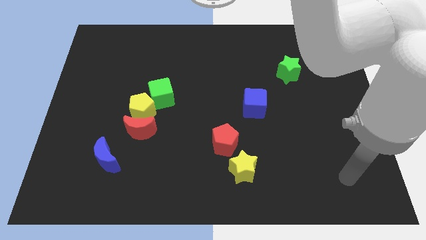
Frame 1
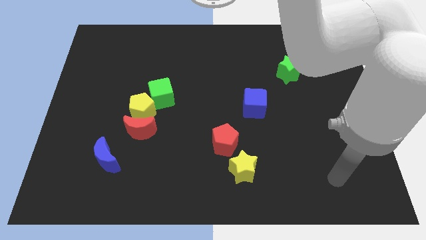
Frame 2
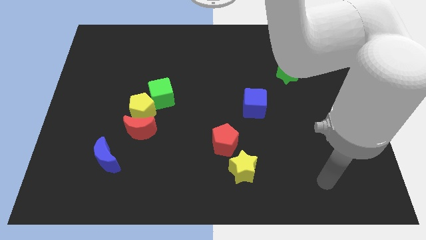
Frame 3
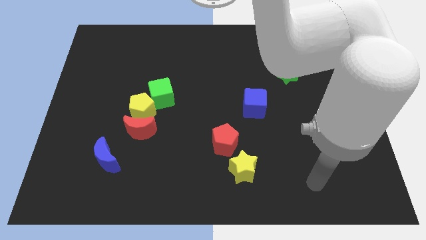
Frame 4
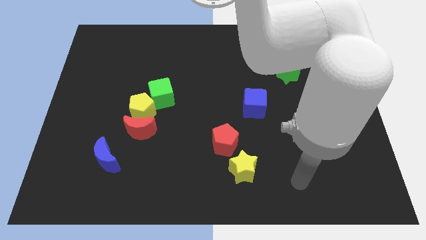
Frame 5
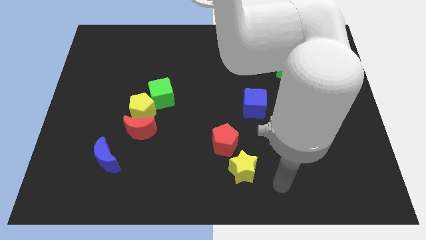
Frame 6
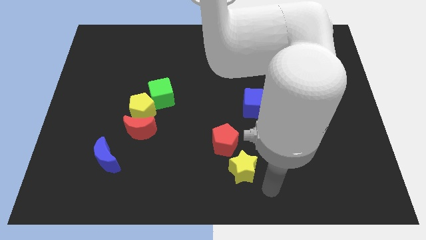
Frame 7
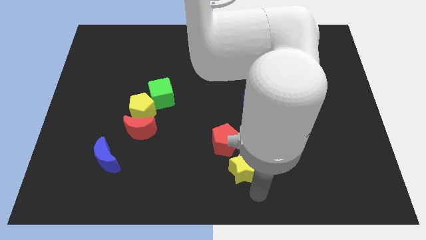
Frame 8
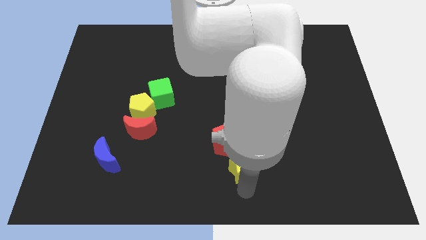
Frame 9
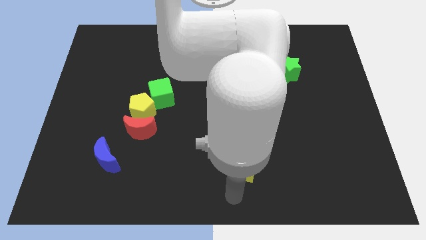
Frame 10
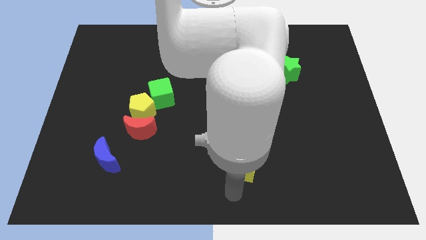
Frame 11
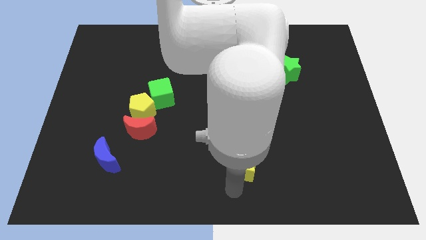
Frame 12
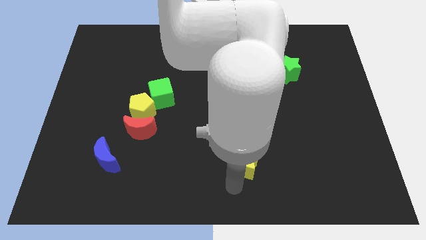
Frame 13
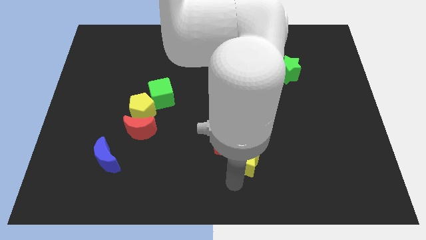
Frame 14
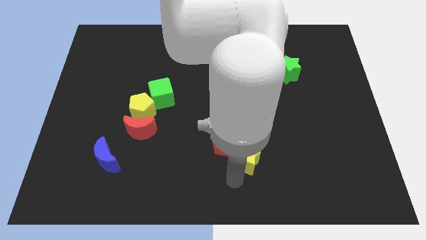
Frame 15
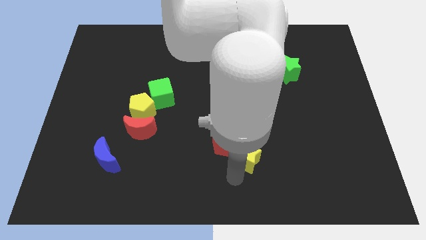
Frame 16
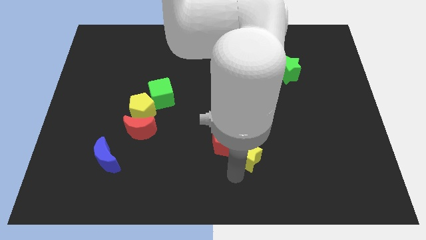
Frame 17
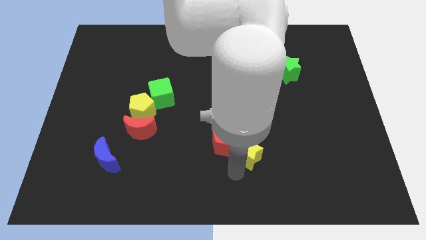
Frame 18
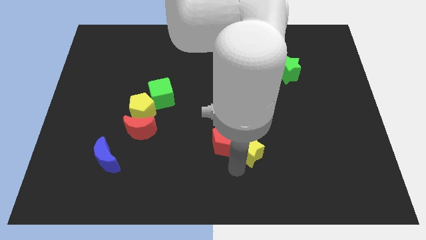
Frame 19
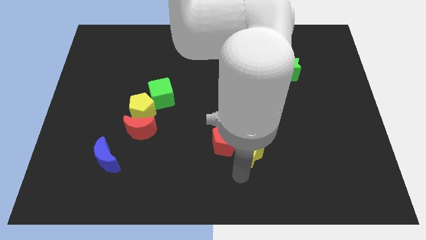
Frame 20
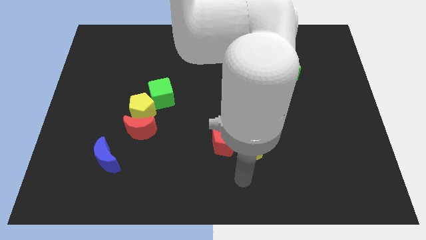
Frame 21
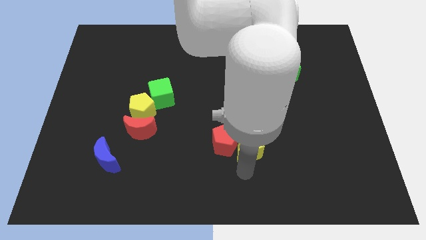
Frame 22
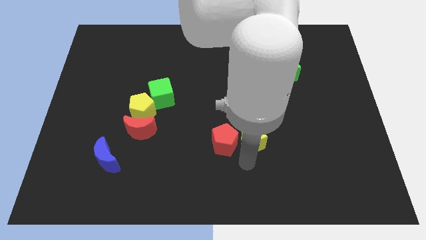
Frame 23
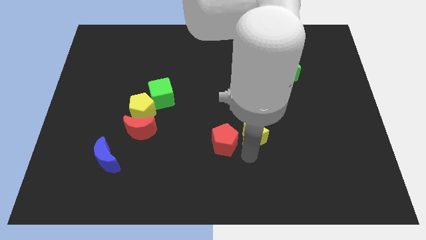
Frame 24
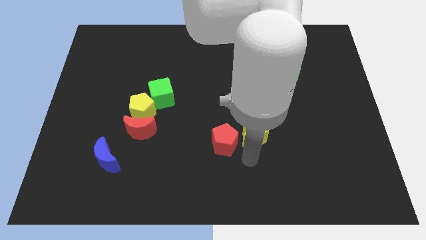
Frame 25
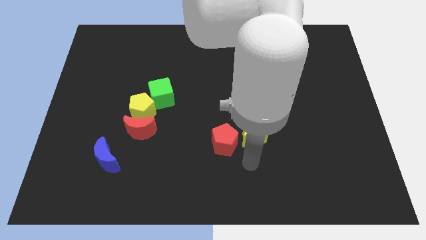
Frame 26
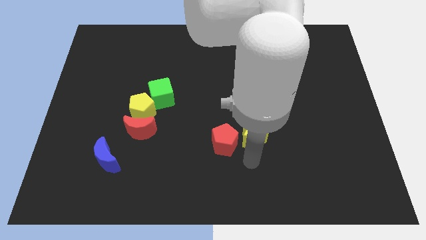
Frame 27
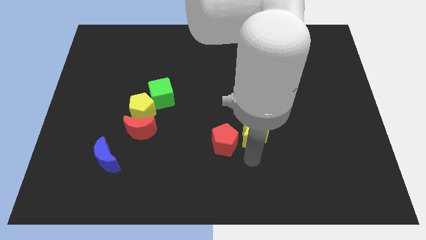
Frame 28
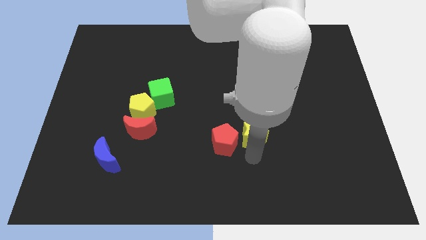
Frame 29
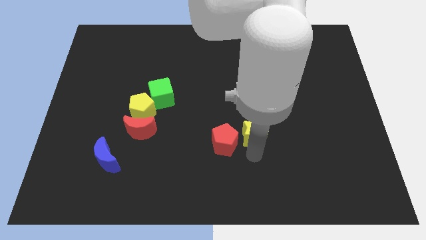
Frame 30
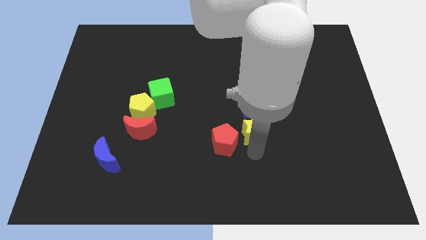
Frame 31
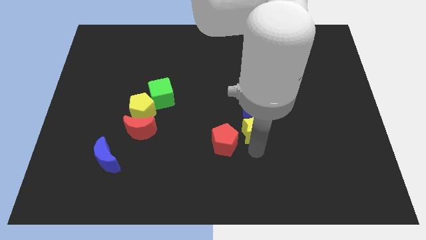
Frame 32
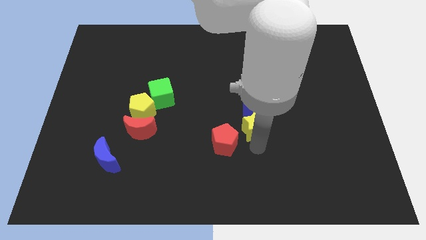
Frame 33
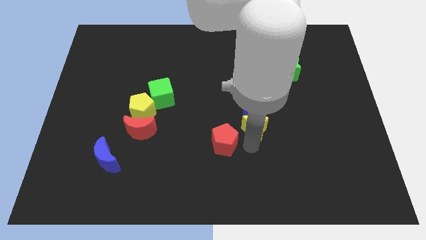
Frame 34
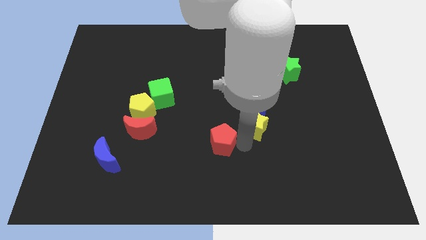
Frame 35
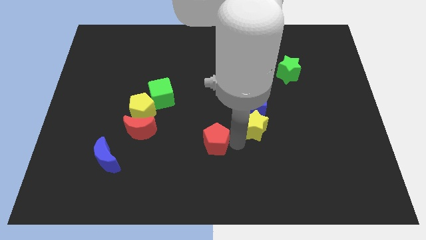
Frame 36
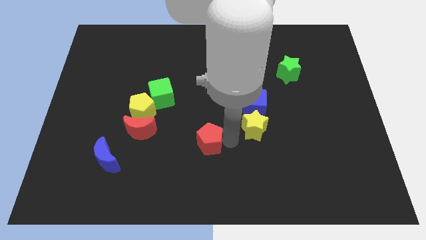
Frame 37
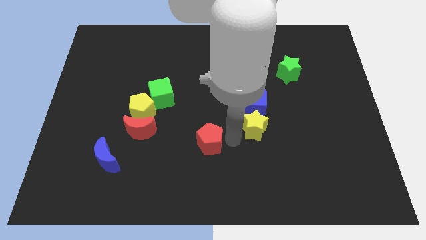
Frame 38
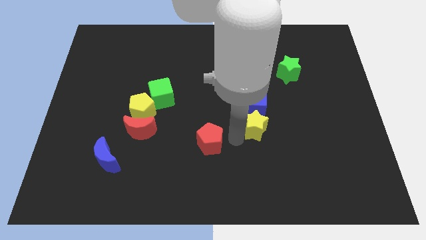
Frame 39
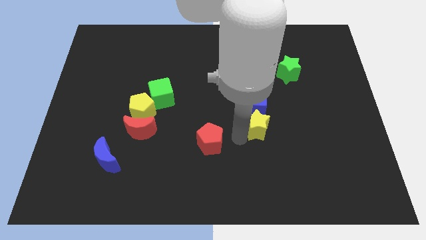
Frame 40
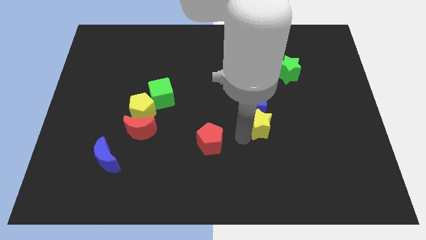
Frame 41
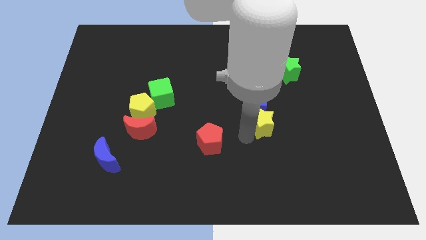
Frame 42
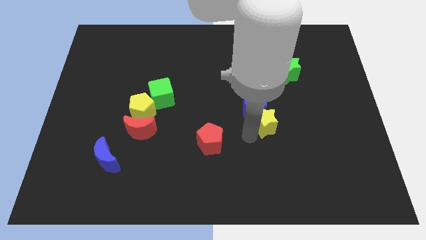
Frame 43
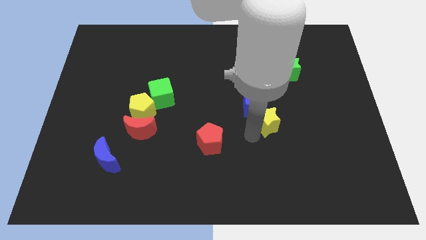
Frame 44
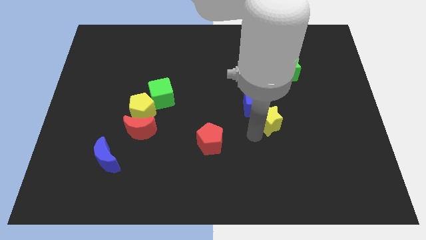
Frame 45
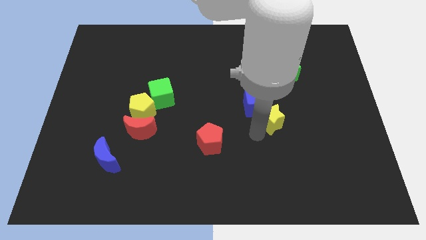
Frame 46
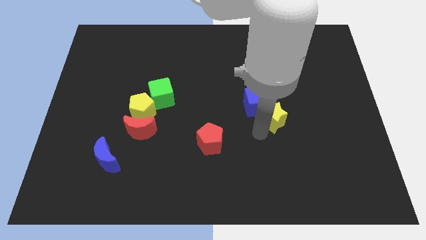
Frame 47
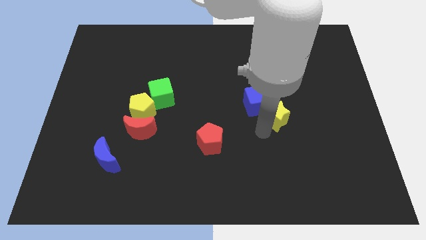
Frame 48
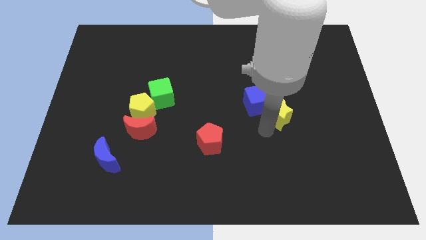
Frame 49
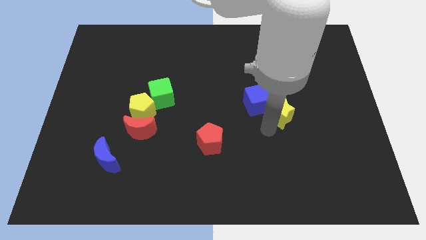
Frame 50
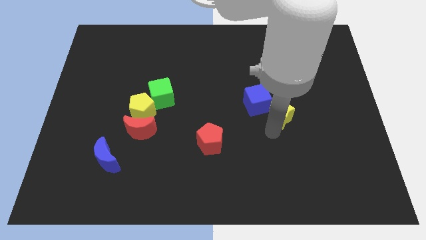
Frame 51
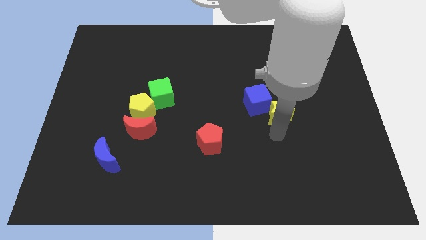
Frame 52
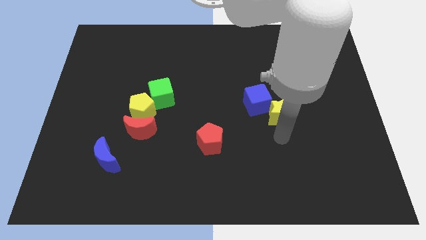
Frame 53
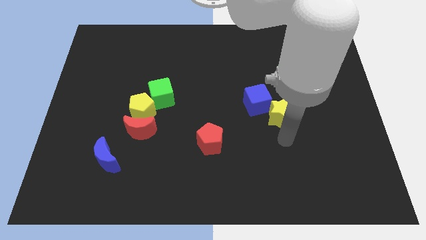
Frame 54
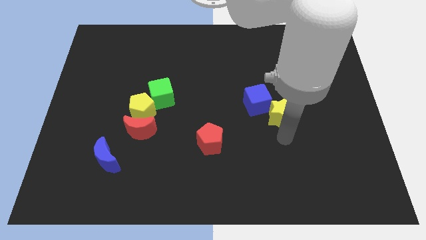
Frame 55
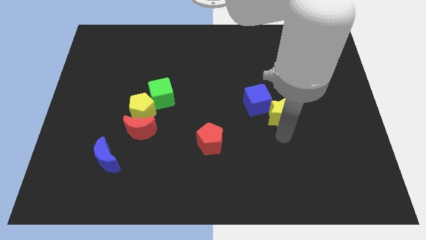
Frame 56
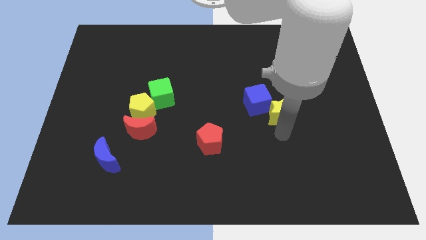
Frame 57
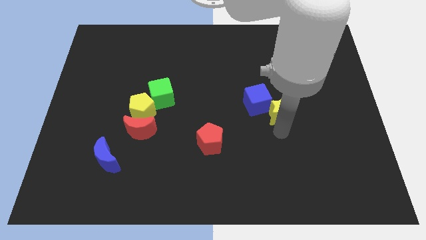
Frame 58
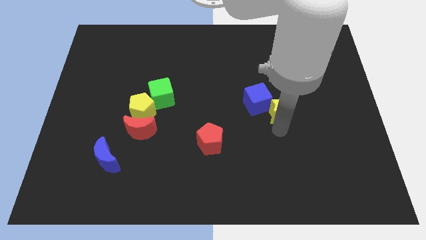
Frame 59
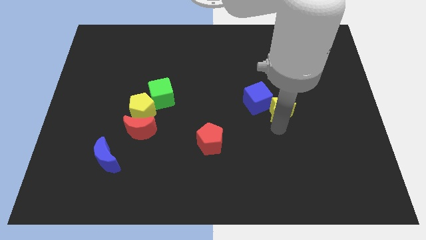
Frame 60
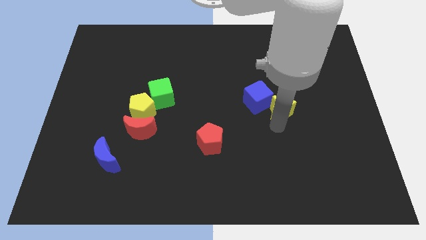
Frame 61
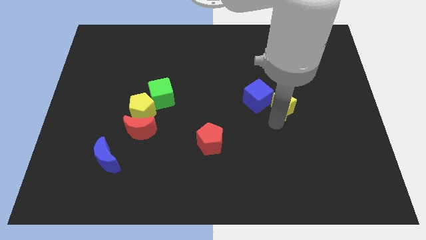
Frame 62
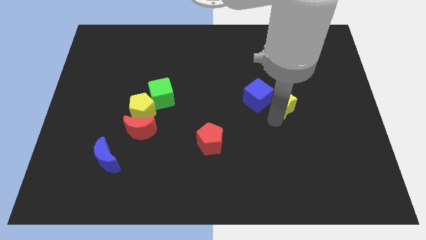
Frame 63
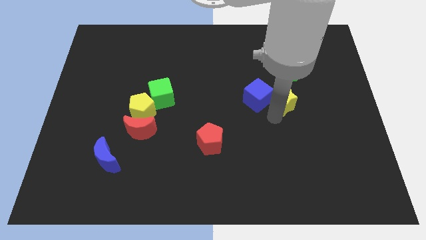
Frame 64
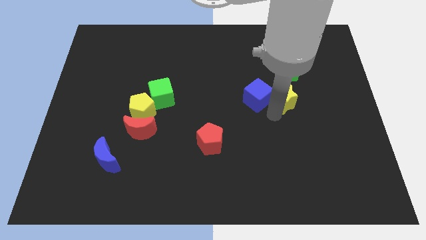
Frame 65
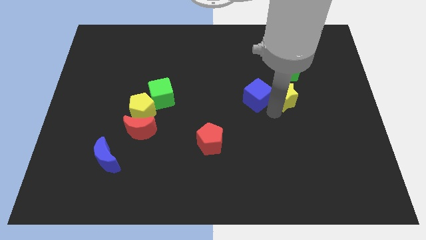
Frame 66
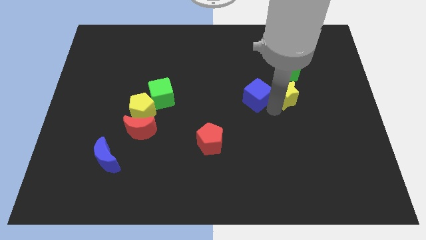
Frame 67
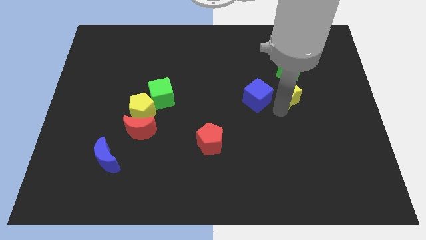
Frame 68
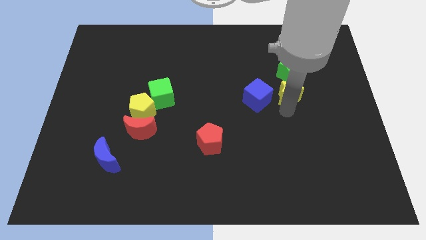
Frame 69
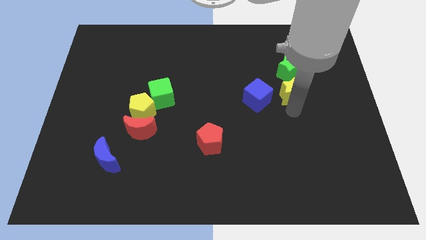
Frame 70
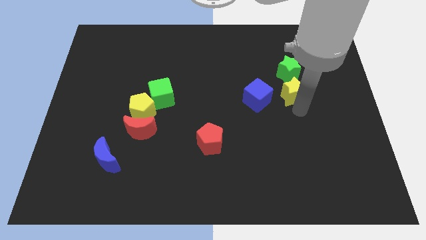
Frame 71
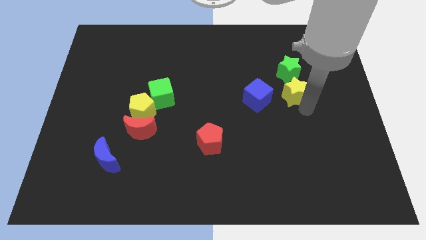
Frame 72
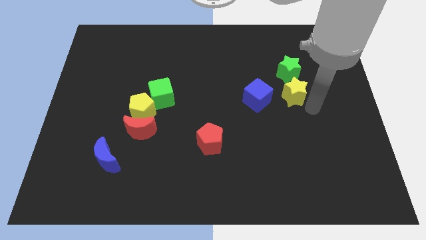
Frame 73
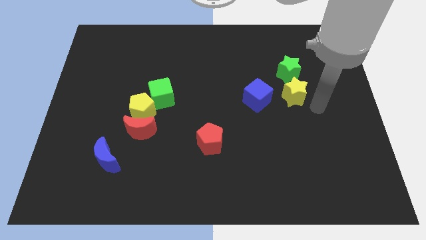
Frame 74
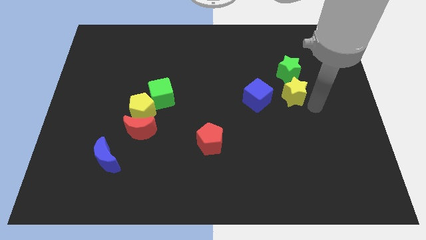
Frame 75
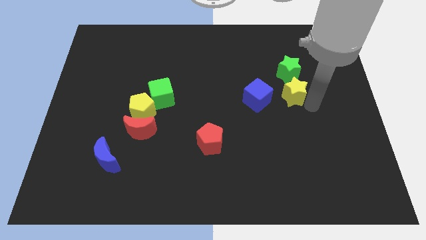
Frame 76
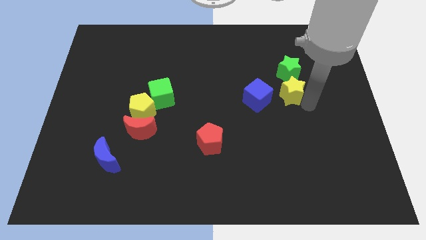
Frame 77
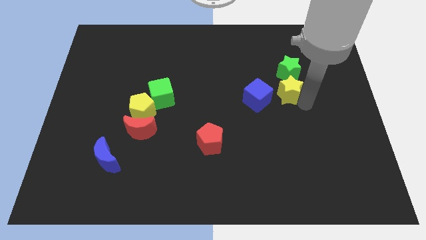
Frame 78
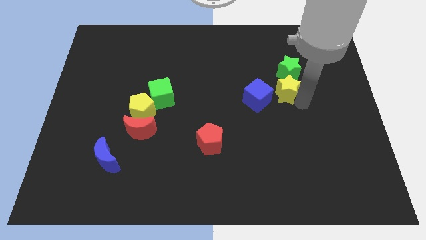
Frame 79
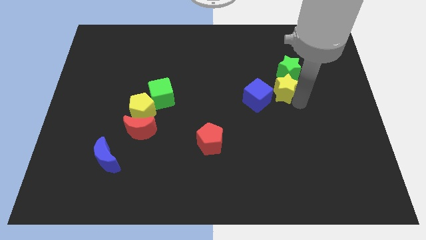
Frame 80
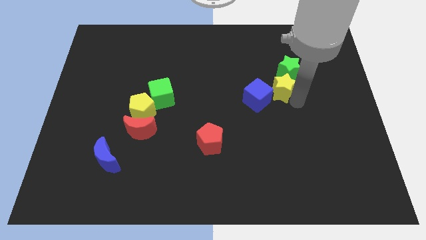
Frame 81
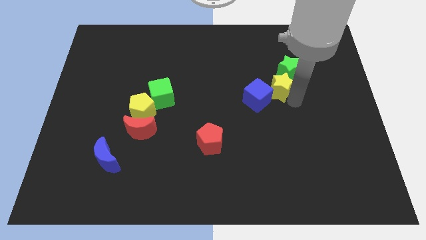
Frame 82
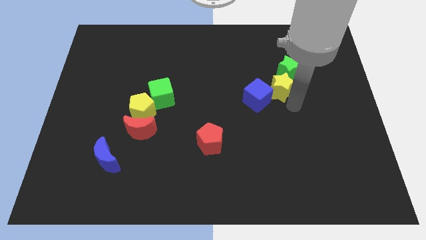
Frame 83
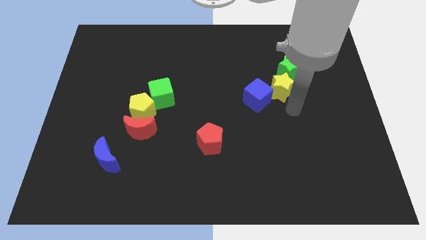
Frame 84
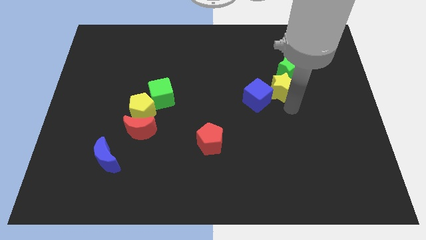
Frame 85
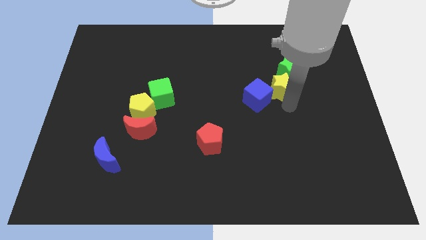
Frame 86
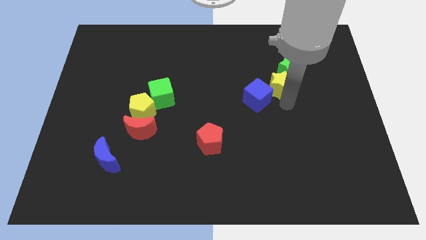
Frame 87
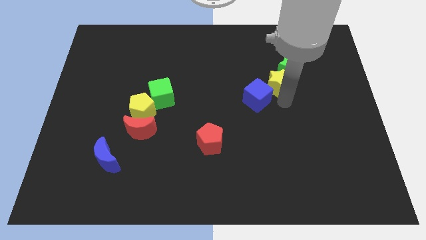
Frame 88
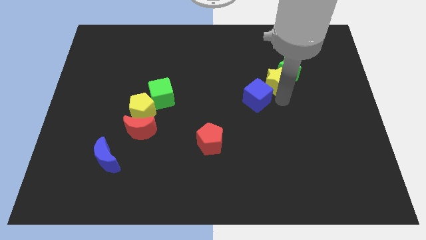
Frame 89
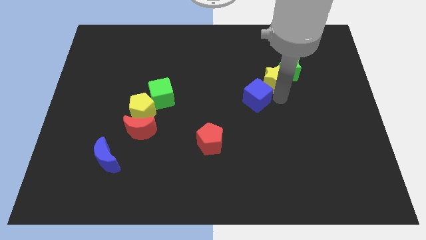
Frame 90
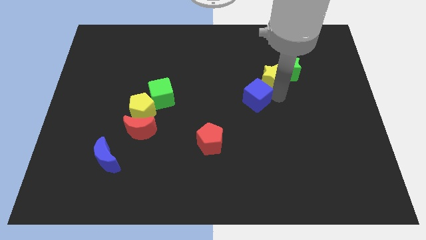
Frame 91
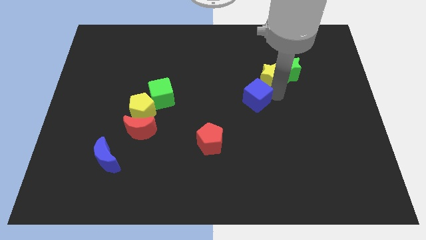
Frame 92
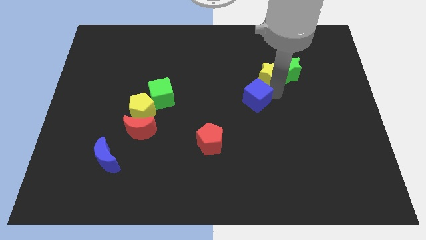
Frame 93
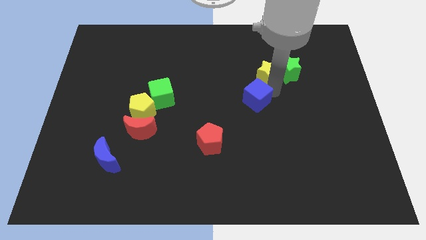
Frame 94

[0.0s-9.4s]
put the yellow star to the top left side of the green star
